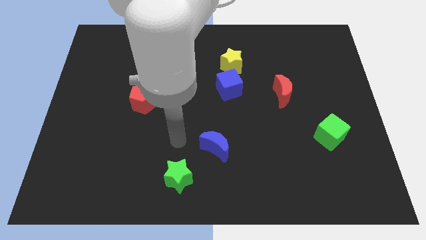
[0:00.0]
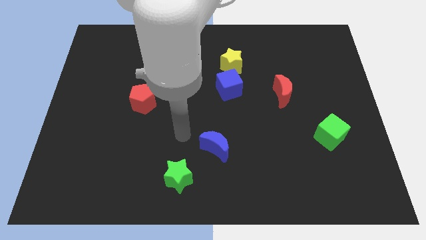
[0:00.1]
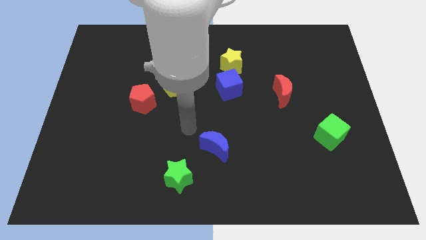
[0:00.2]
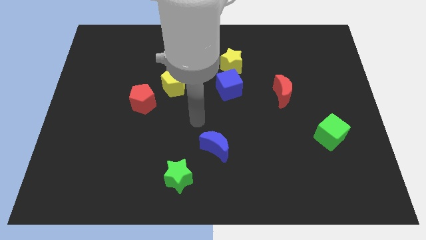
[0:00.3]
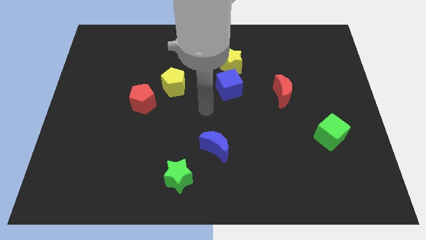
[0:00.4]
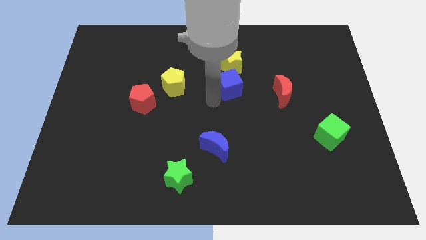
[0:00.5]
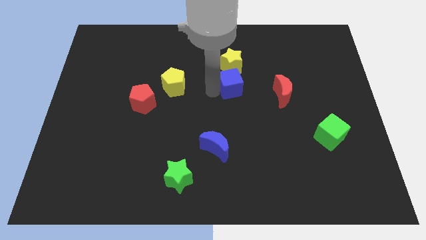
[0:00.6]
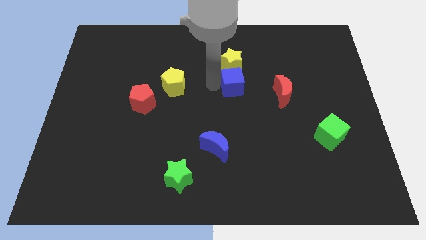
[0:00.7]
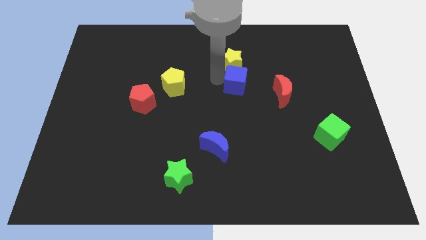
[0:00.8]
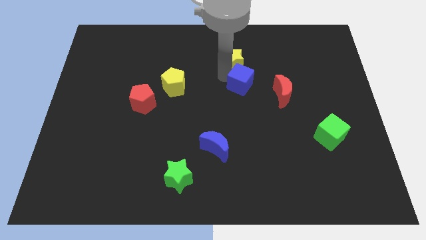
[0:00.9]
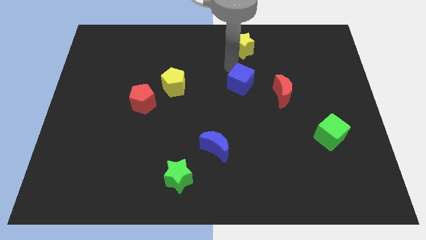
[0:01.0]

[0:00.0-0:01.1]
pull the blue cube apart from the yellow star

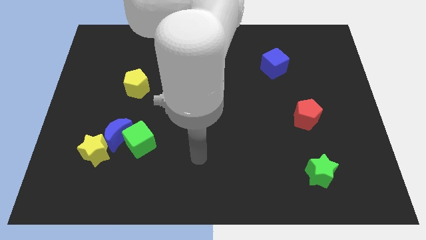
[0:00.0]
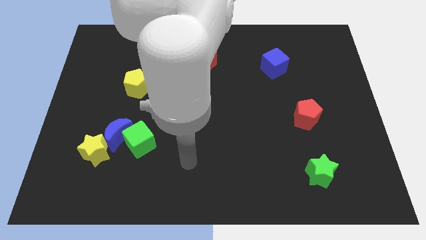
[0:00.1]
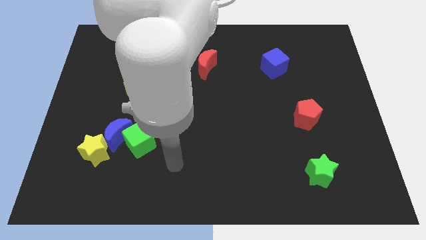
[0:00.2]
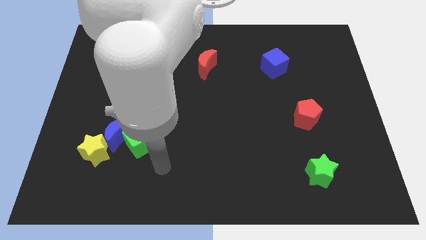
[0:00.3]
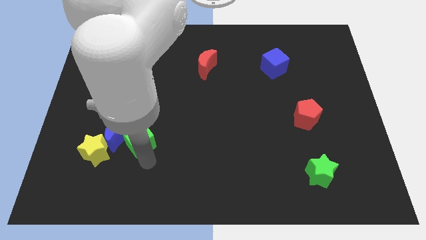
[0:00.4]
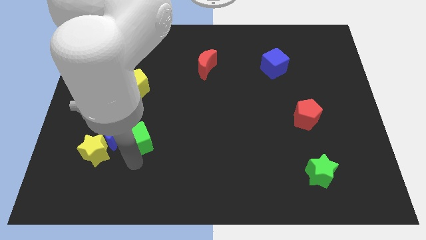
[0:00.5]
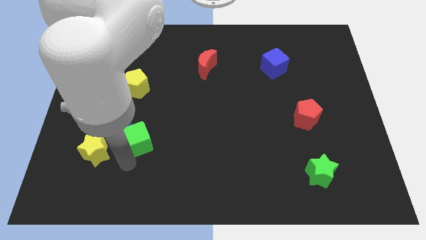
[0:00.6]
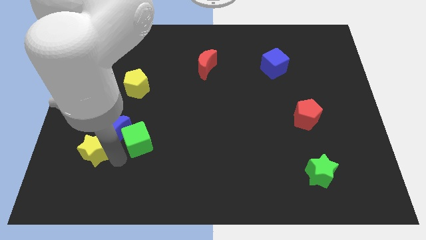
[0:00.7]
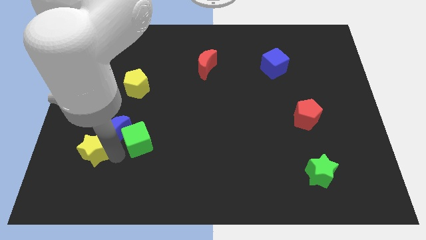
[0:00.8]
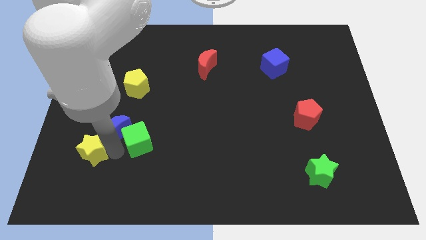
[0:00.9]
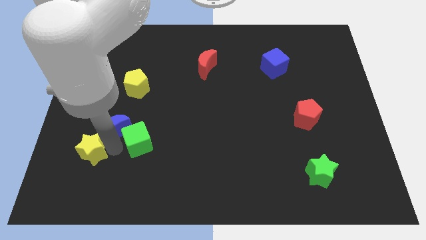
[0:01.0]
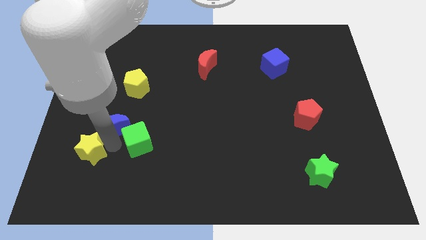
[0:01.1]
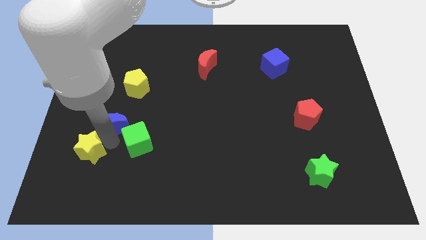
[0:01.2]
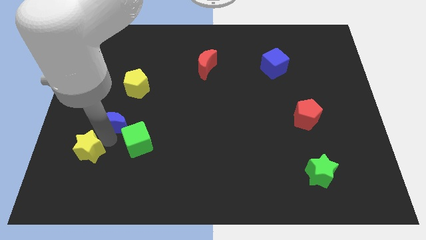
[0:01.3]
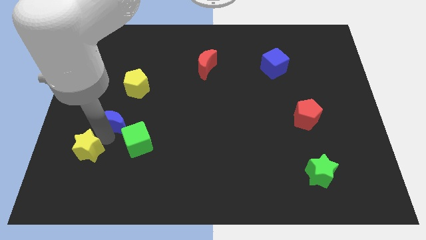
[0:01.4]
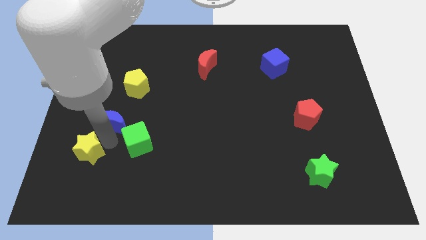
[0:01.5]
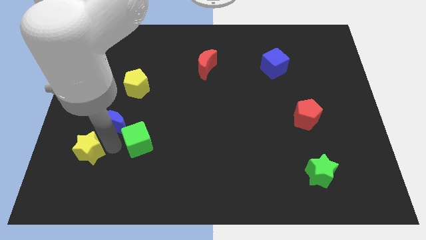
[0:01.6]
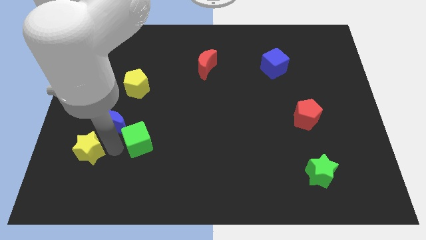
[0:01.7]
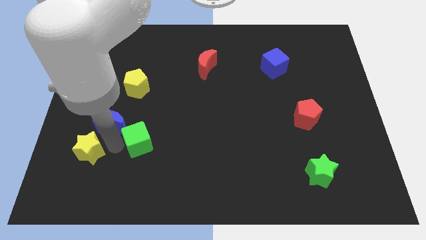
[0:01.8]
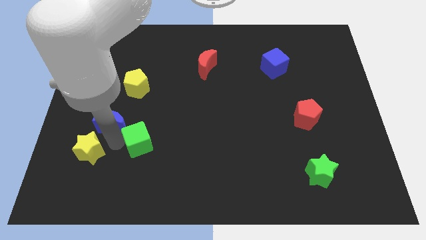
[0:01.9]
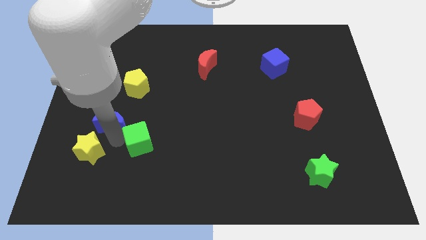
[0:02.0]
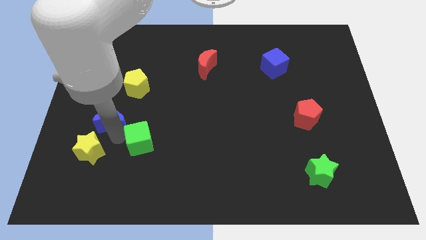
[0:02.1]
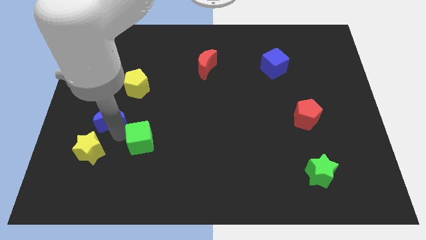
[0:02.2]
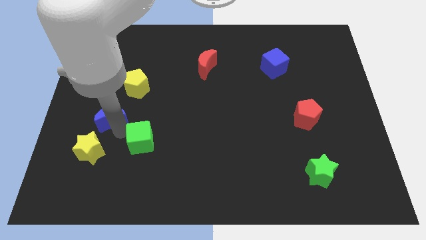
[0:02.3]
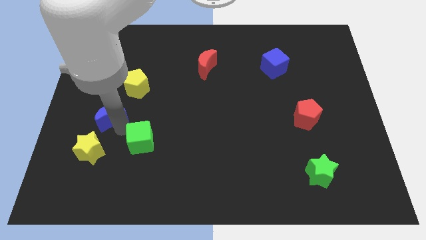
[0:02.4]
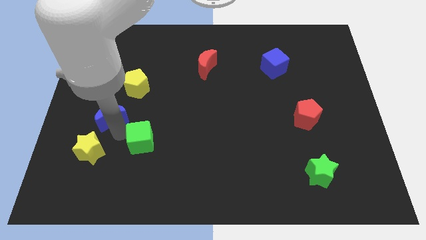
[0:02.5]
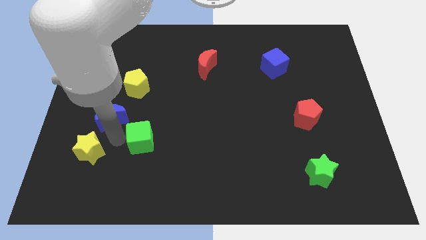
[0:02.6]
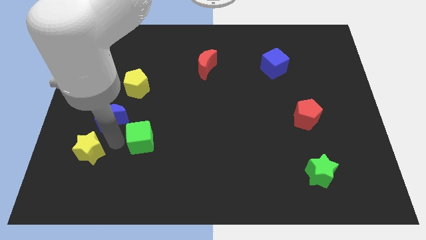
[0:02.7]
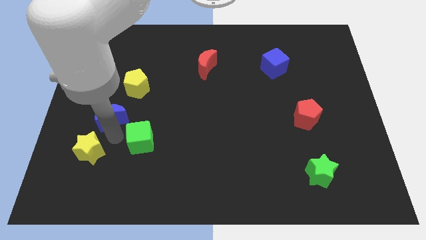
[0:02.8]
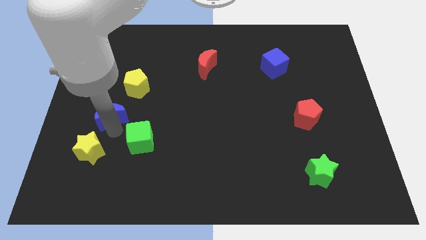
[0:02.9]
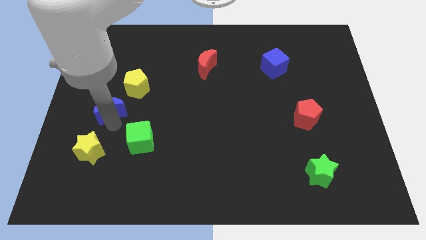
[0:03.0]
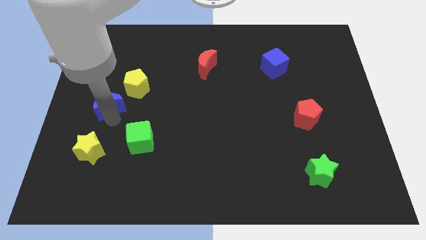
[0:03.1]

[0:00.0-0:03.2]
move the blue moon away from the green cube and yellow star

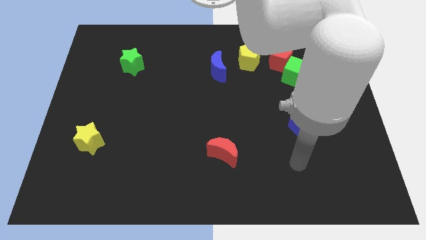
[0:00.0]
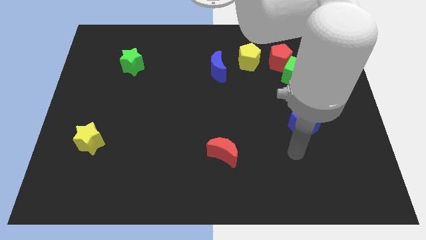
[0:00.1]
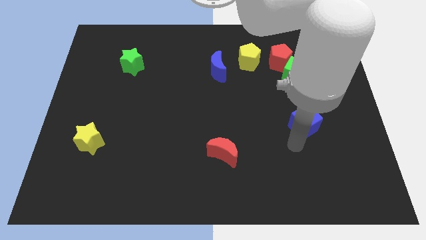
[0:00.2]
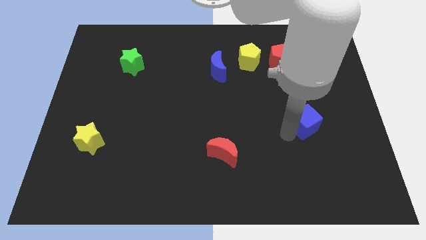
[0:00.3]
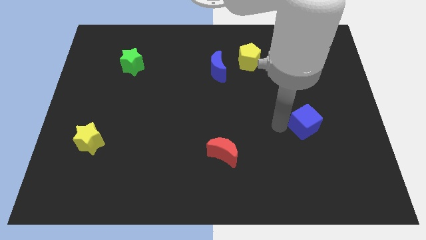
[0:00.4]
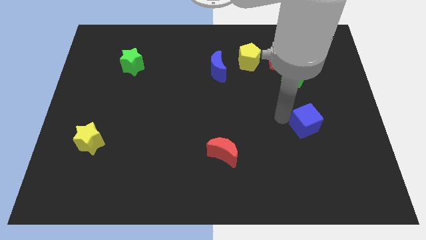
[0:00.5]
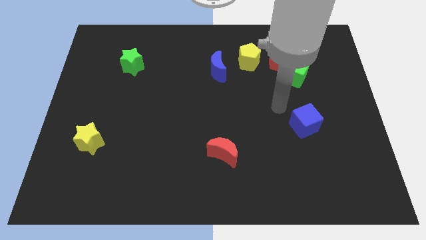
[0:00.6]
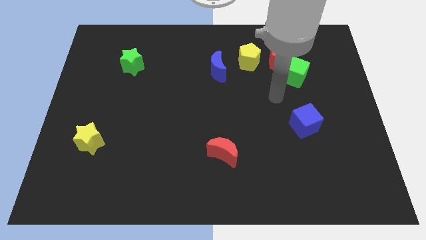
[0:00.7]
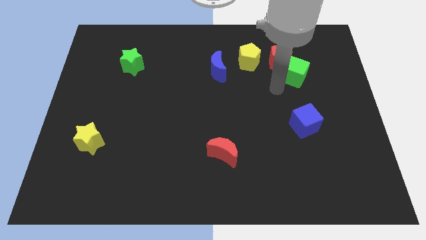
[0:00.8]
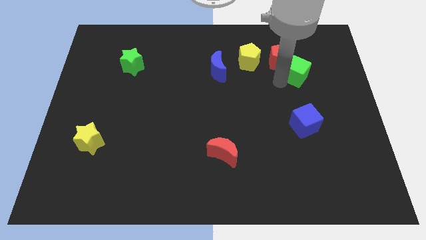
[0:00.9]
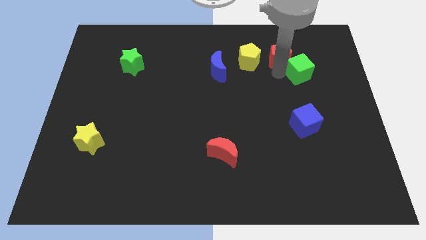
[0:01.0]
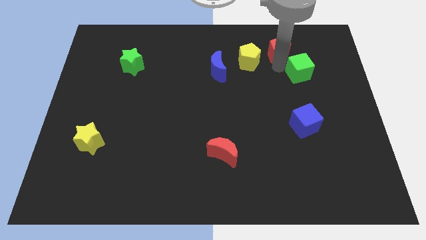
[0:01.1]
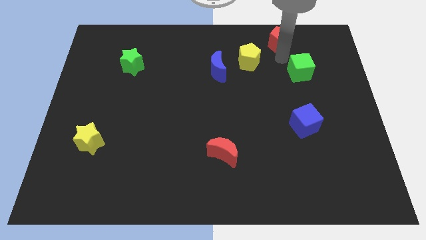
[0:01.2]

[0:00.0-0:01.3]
pull the green cube apart from the red pentagon

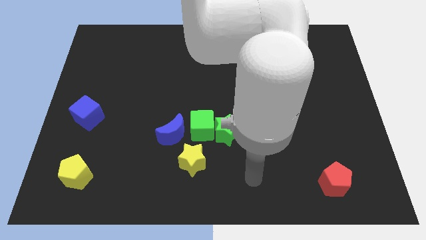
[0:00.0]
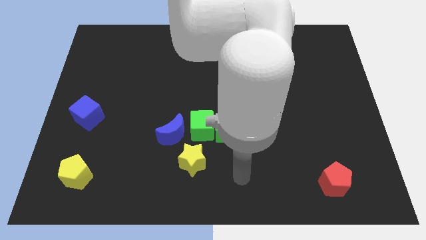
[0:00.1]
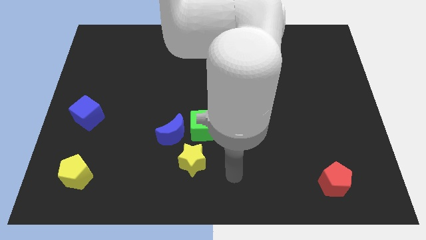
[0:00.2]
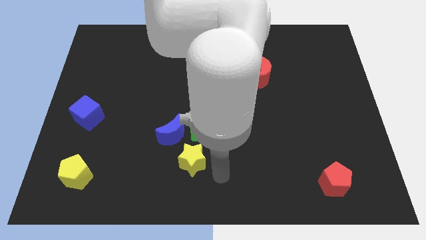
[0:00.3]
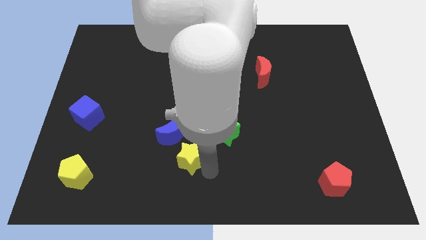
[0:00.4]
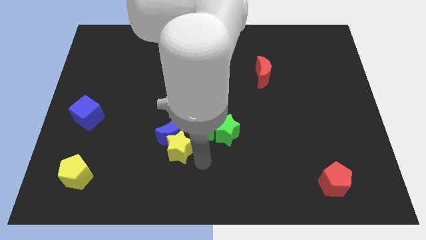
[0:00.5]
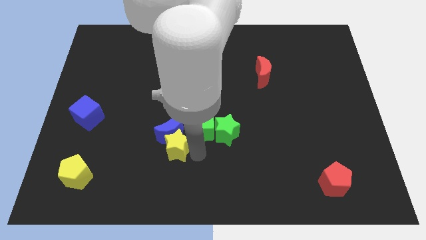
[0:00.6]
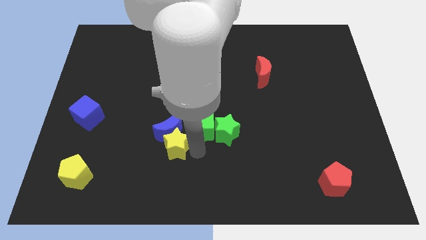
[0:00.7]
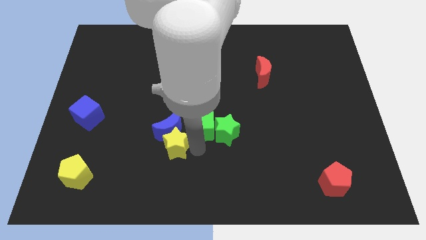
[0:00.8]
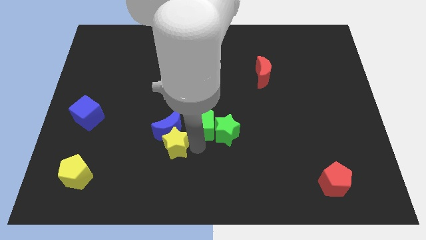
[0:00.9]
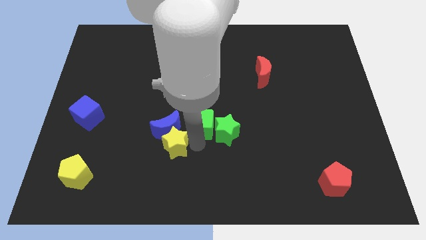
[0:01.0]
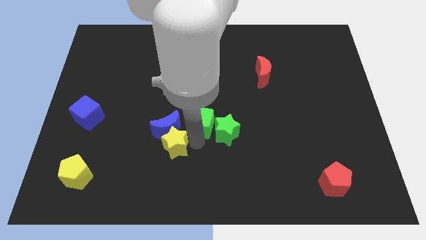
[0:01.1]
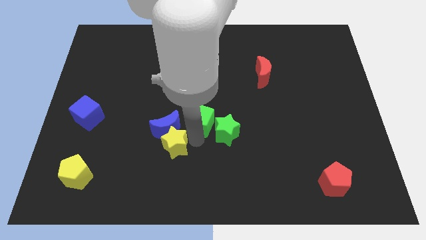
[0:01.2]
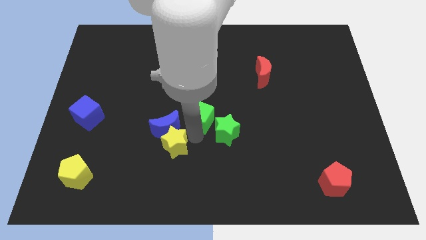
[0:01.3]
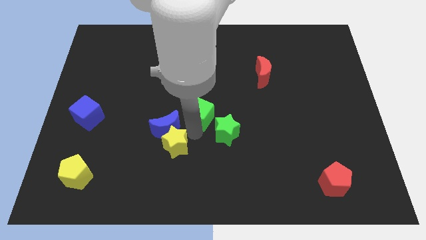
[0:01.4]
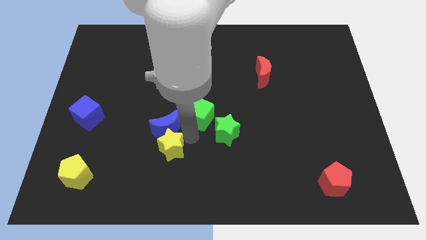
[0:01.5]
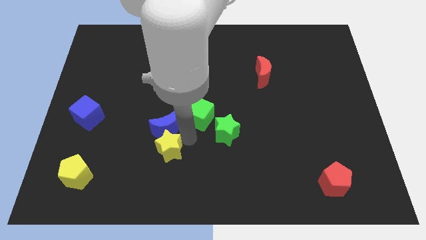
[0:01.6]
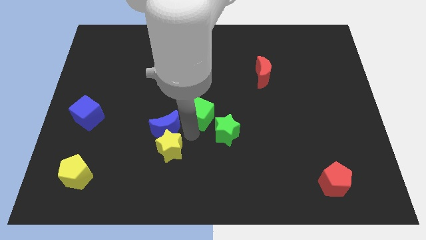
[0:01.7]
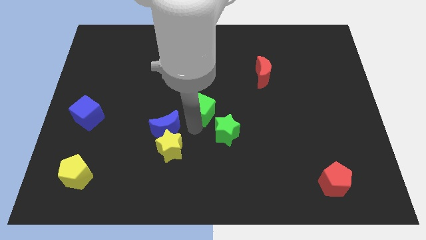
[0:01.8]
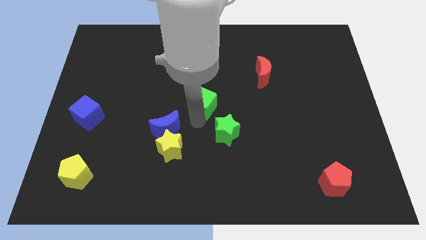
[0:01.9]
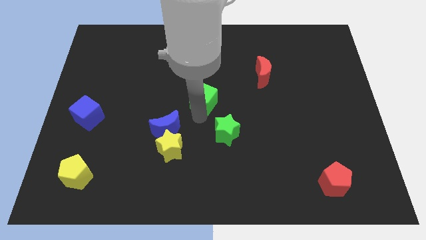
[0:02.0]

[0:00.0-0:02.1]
pull the green cube apart from the green star, blue moon, and yellow star

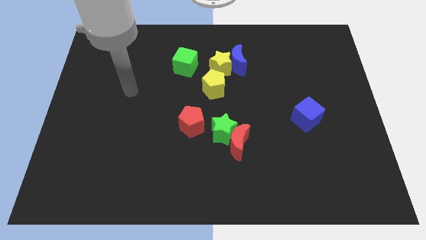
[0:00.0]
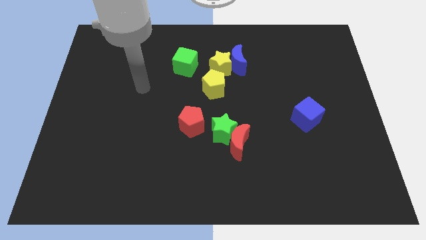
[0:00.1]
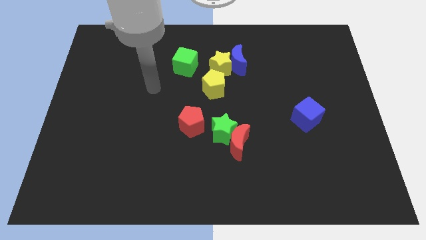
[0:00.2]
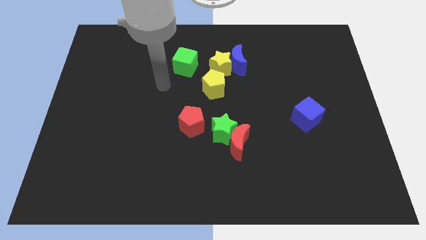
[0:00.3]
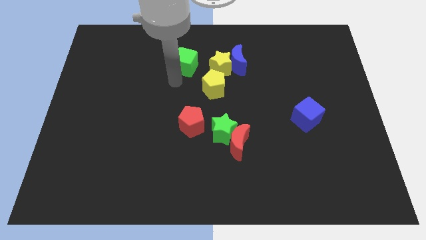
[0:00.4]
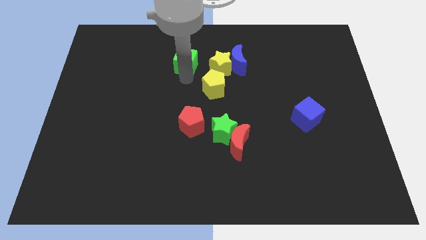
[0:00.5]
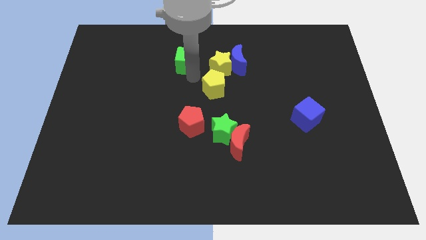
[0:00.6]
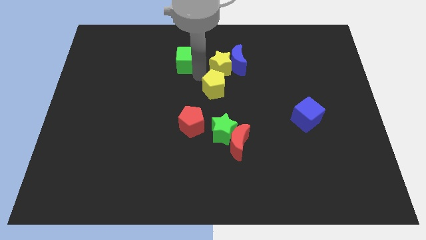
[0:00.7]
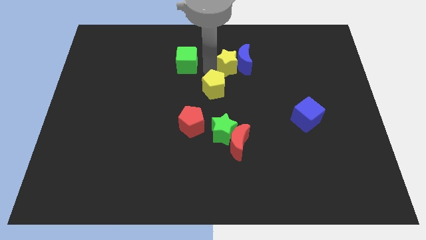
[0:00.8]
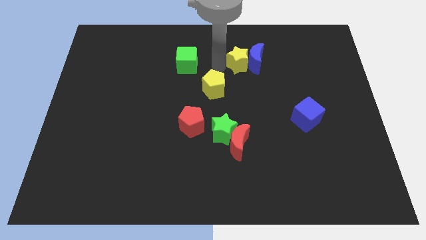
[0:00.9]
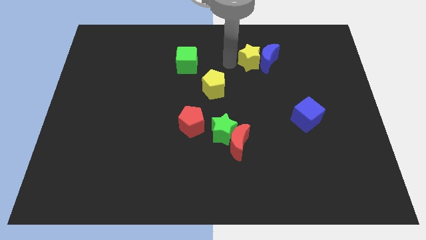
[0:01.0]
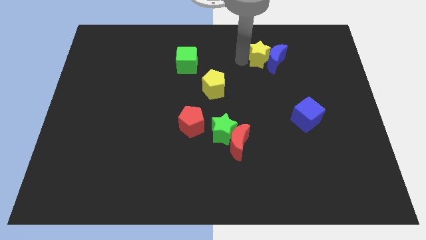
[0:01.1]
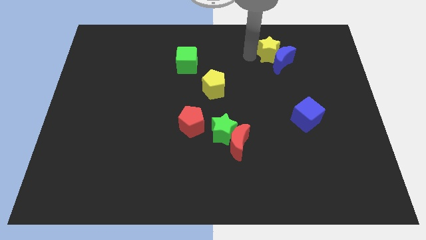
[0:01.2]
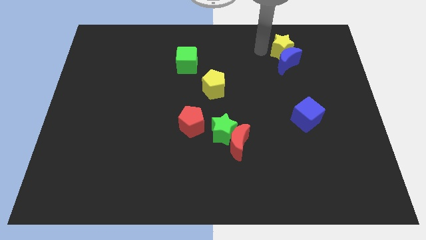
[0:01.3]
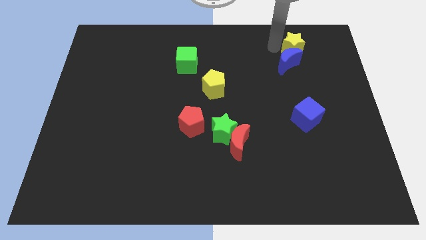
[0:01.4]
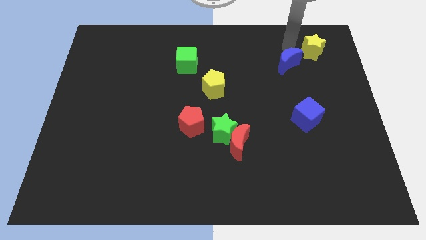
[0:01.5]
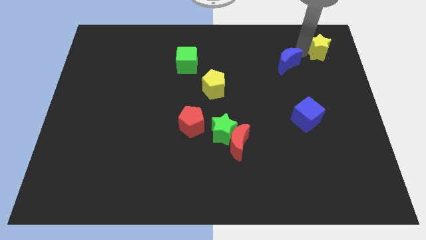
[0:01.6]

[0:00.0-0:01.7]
move the blue moon away from the yellow star
